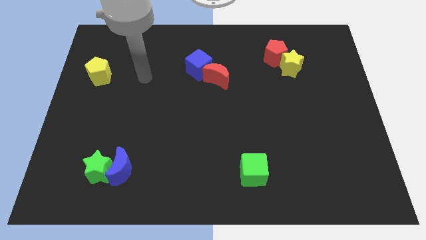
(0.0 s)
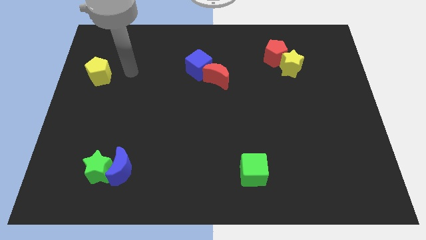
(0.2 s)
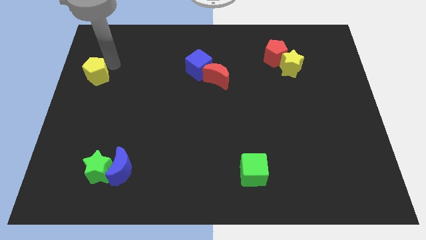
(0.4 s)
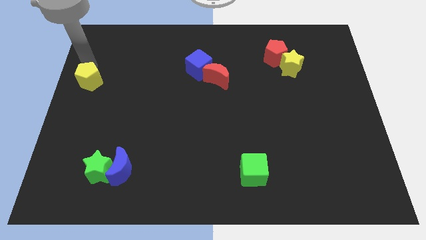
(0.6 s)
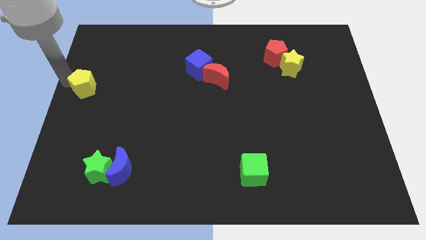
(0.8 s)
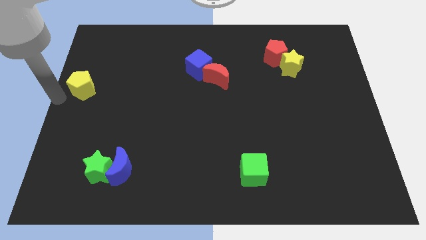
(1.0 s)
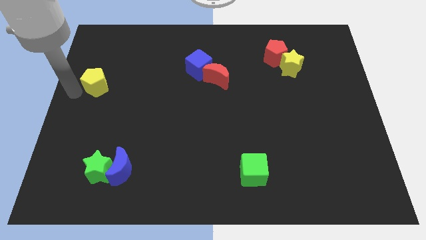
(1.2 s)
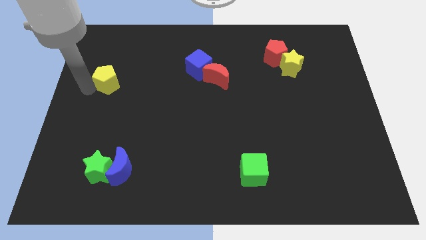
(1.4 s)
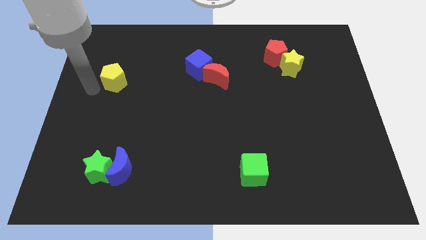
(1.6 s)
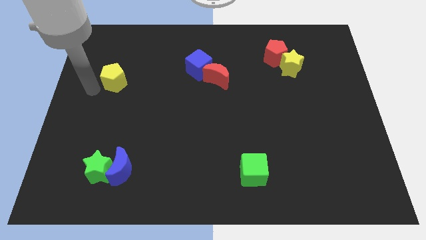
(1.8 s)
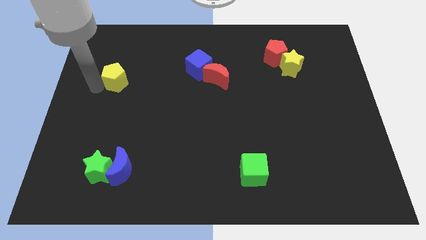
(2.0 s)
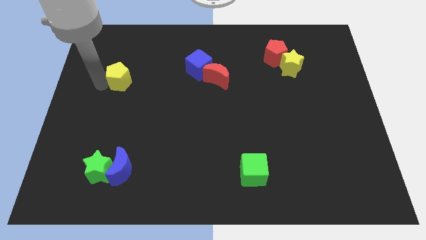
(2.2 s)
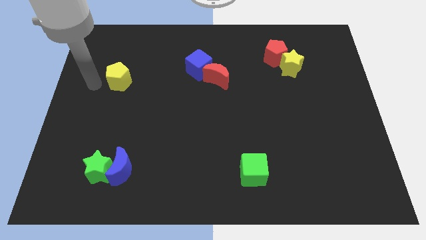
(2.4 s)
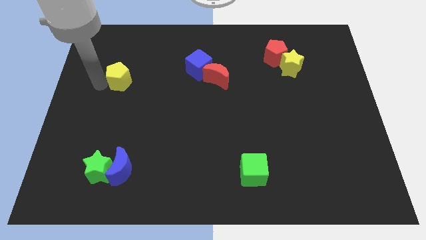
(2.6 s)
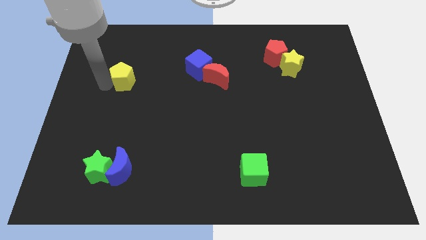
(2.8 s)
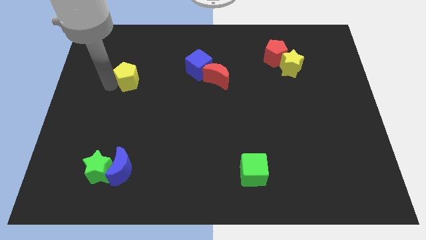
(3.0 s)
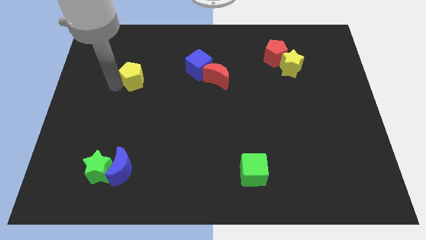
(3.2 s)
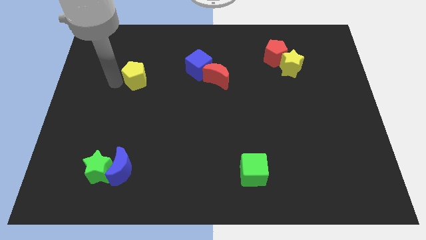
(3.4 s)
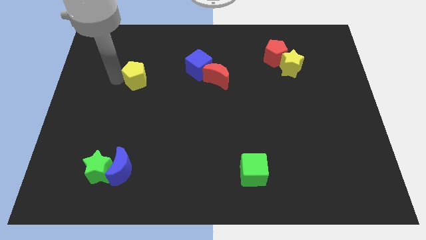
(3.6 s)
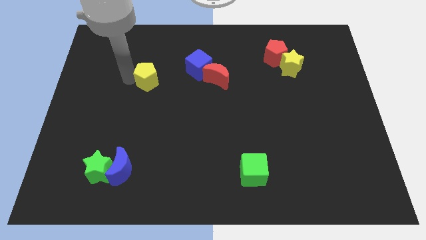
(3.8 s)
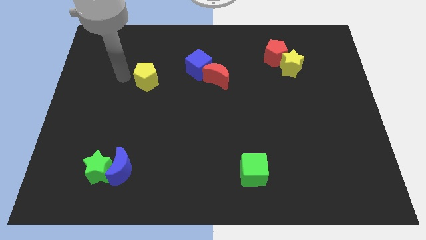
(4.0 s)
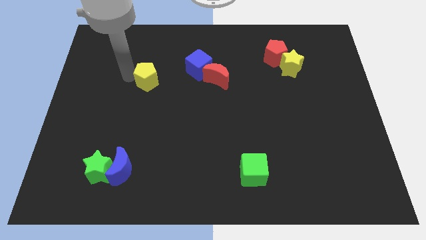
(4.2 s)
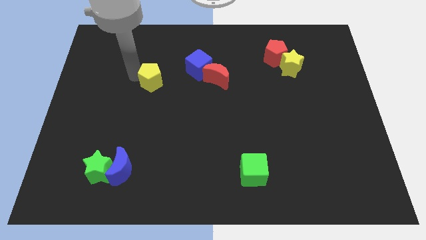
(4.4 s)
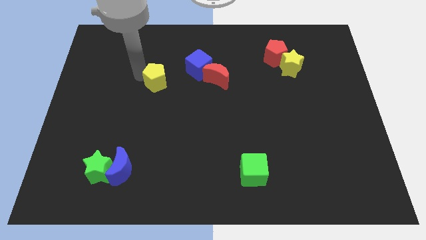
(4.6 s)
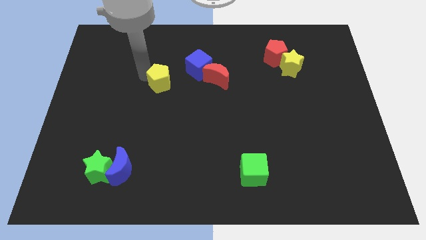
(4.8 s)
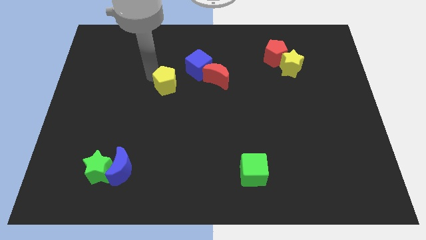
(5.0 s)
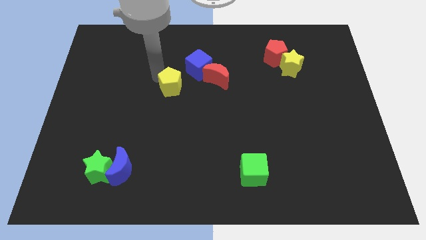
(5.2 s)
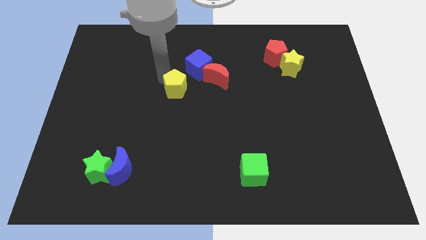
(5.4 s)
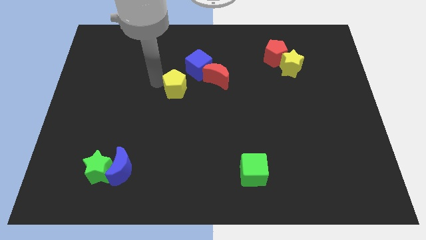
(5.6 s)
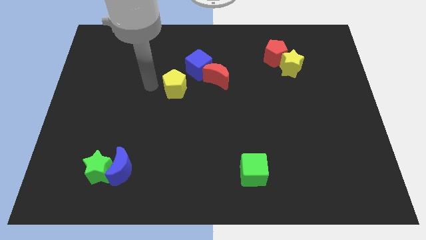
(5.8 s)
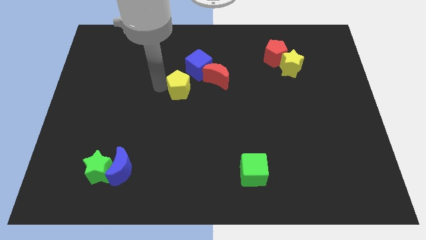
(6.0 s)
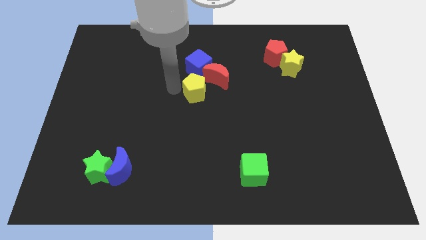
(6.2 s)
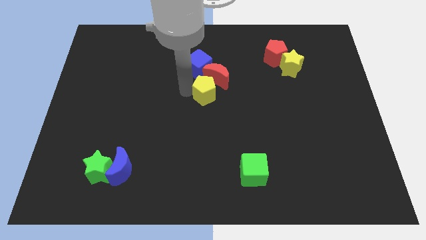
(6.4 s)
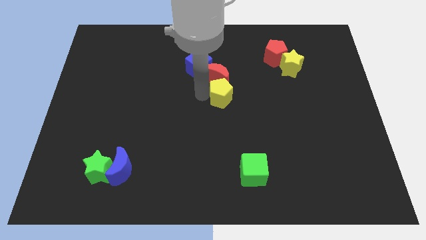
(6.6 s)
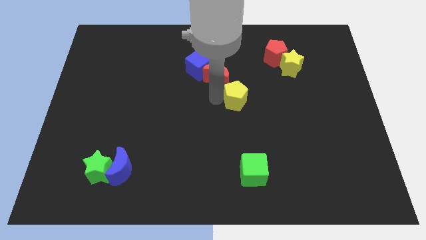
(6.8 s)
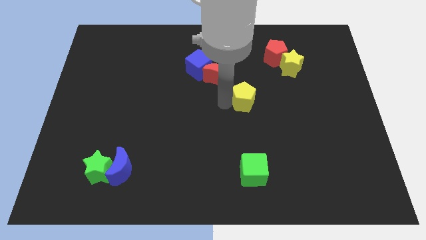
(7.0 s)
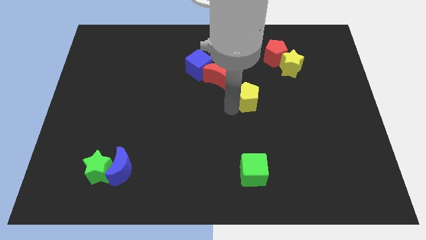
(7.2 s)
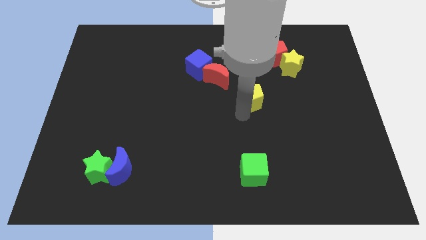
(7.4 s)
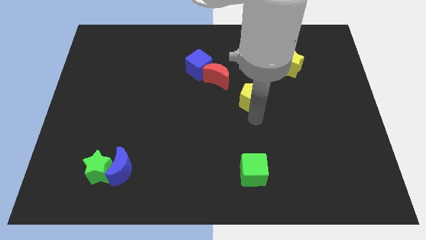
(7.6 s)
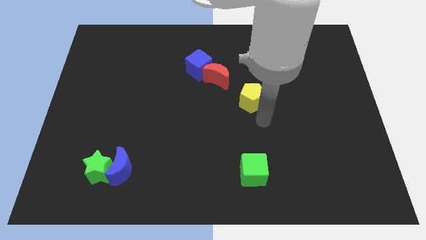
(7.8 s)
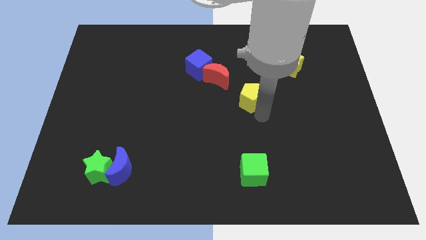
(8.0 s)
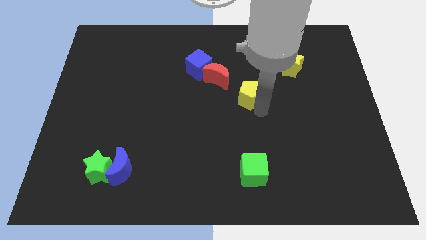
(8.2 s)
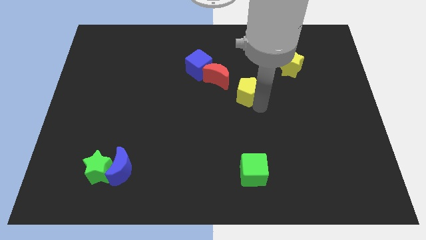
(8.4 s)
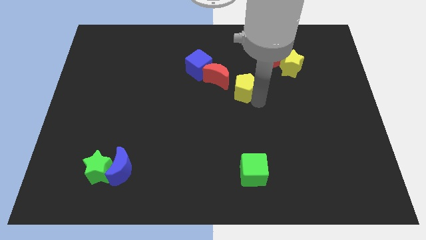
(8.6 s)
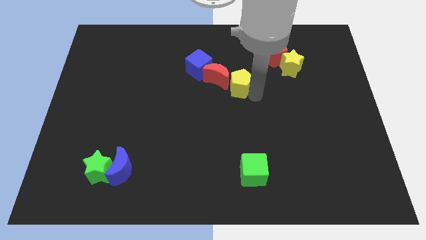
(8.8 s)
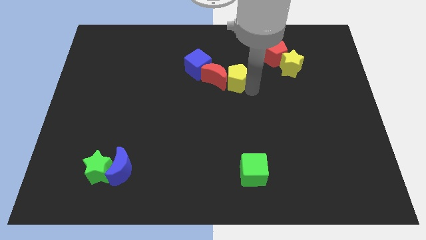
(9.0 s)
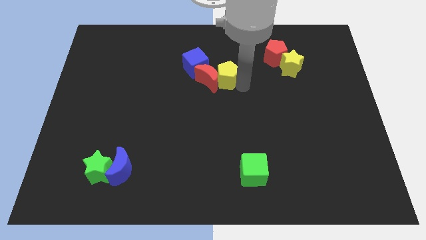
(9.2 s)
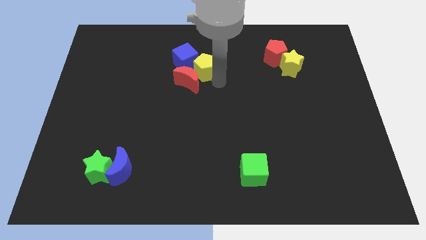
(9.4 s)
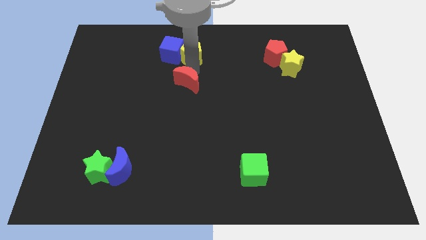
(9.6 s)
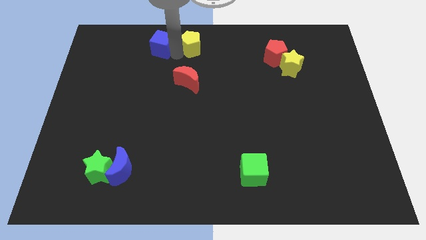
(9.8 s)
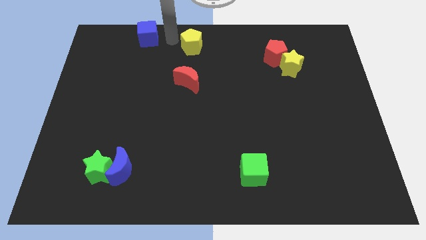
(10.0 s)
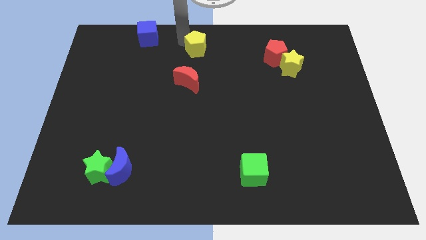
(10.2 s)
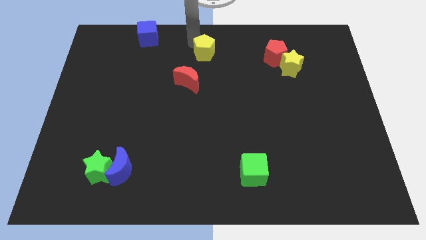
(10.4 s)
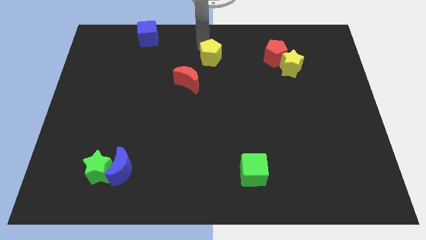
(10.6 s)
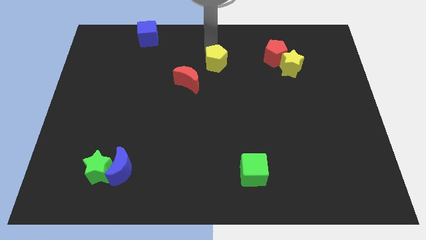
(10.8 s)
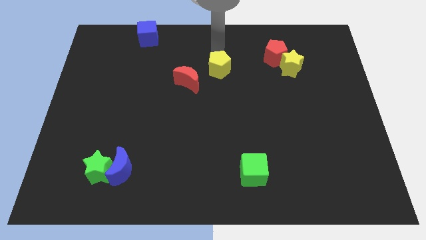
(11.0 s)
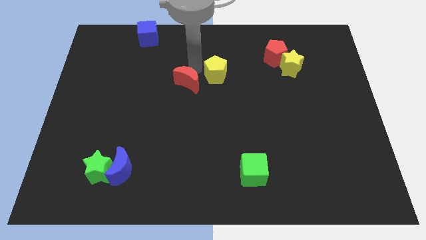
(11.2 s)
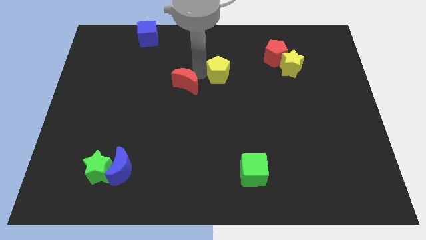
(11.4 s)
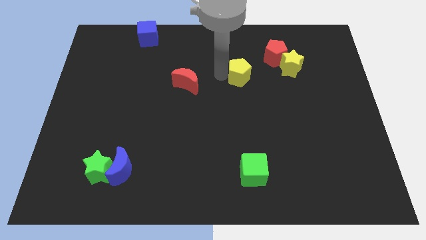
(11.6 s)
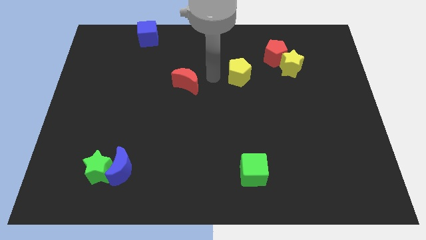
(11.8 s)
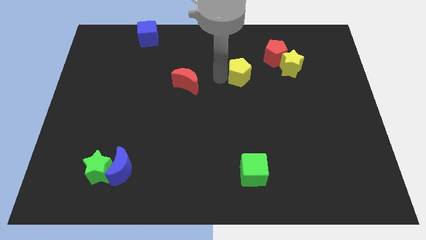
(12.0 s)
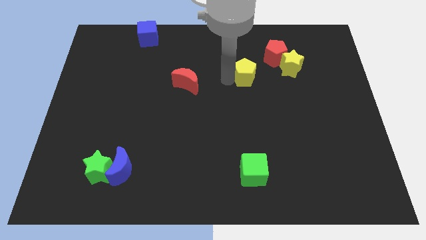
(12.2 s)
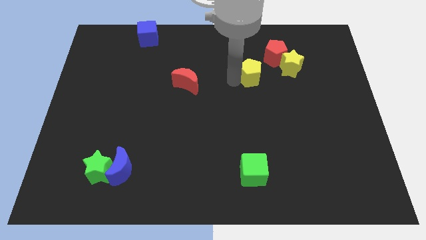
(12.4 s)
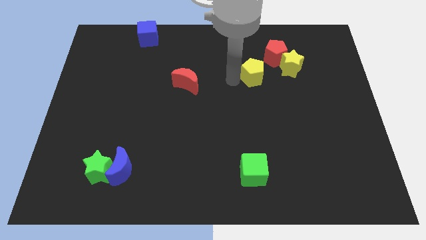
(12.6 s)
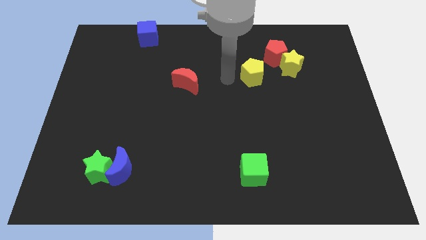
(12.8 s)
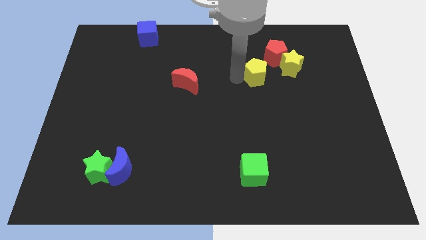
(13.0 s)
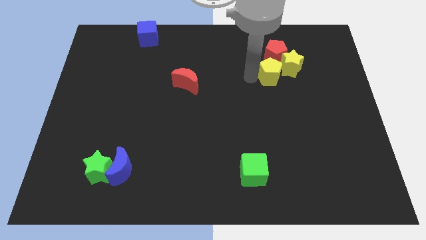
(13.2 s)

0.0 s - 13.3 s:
slide the yellow pentagon towards the yellow star

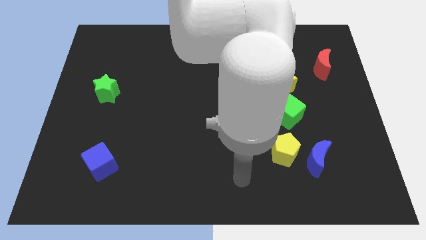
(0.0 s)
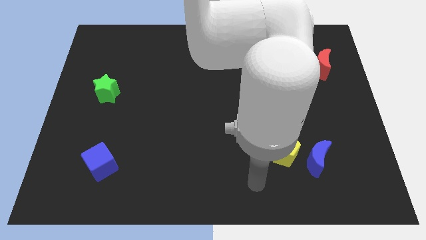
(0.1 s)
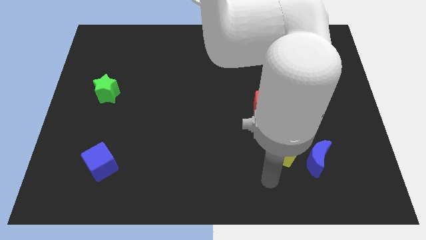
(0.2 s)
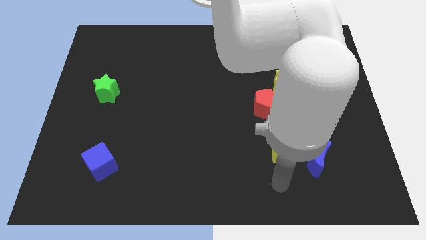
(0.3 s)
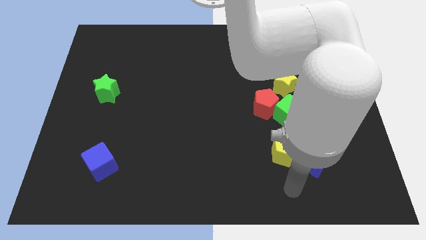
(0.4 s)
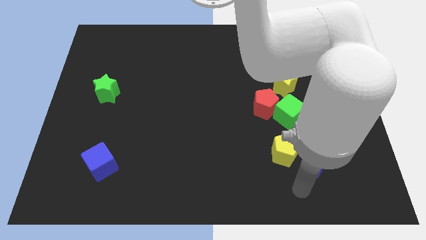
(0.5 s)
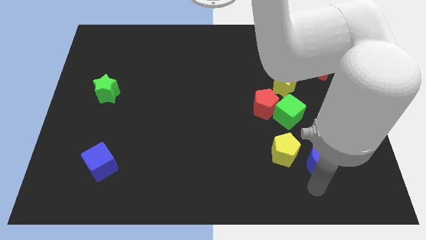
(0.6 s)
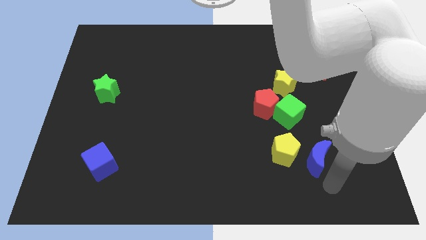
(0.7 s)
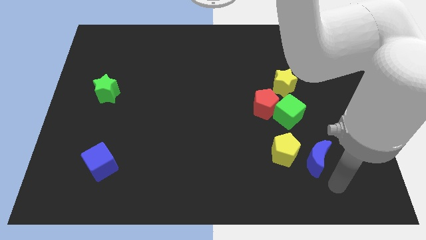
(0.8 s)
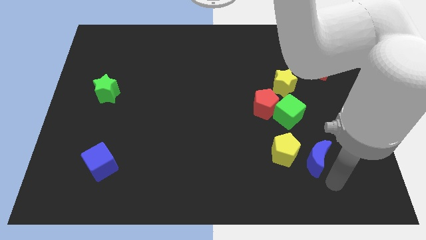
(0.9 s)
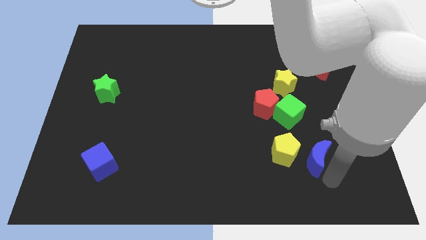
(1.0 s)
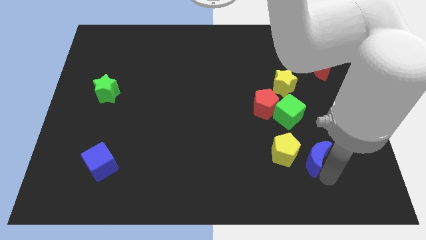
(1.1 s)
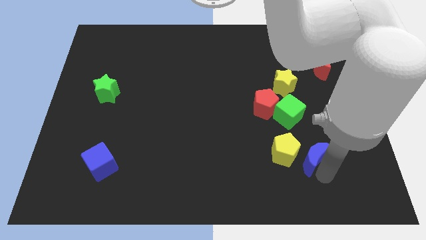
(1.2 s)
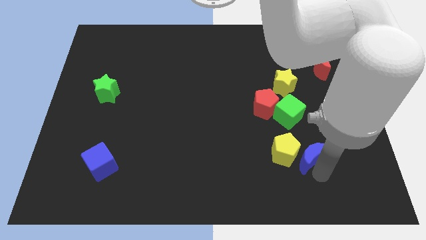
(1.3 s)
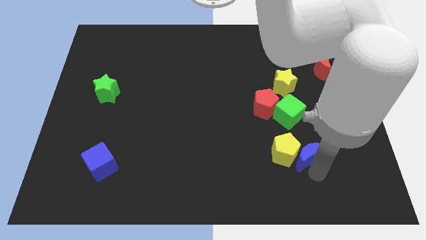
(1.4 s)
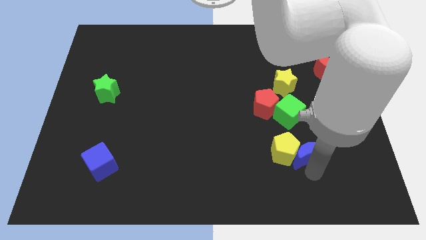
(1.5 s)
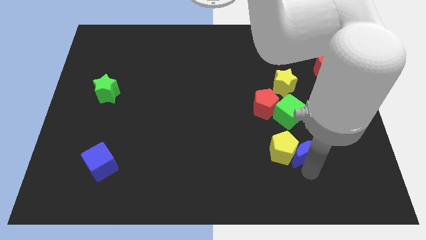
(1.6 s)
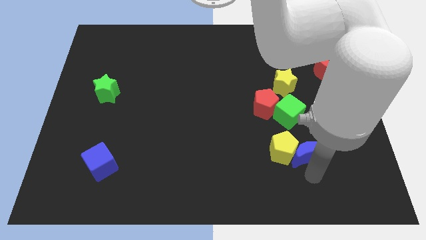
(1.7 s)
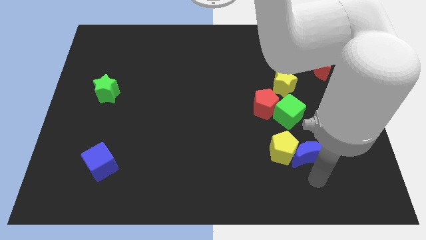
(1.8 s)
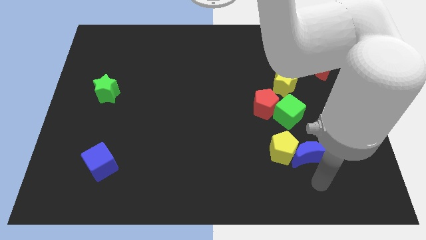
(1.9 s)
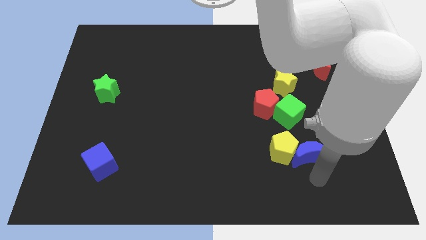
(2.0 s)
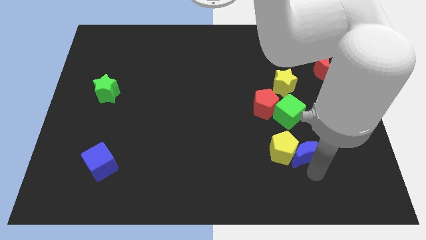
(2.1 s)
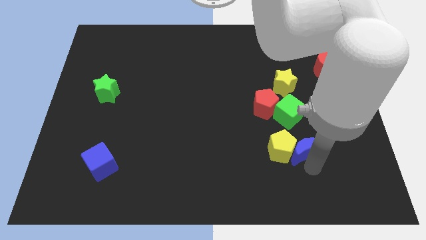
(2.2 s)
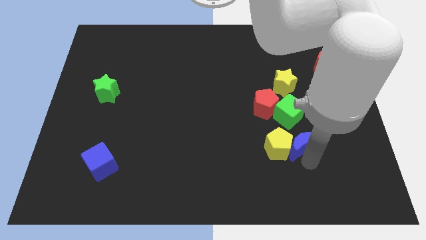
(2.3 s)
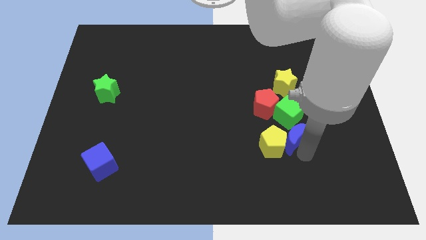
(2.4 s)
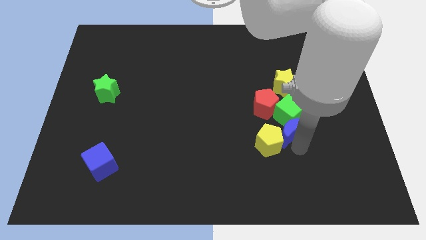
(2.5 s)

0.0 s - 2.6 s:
move the blue moon to the green cube
